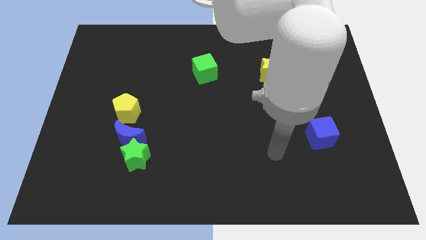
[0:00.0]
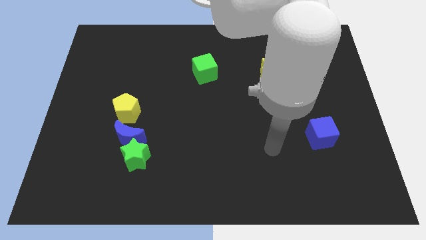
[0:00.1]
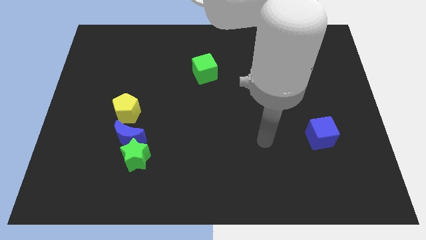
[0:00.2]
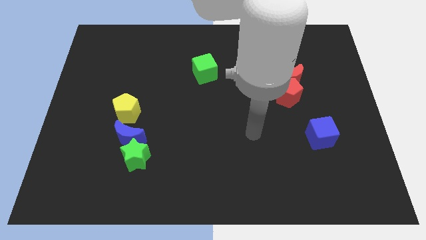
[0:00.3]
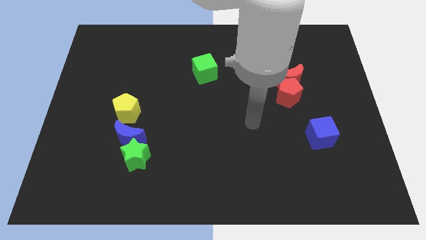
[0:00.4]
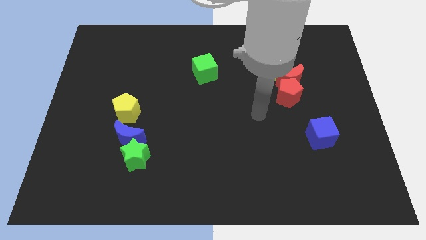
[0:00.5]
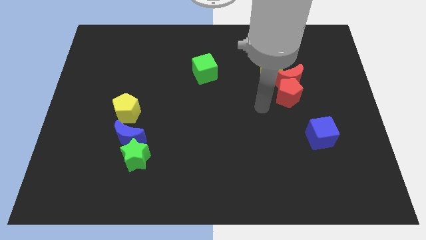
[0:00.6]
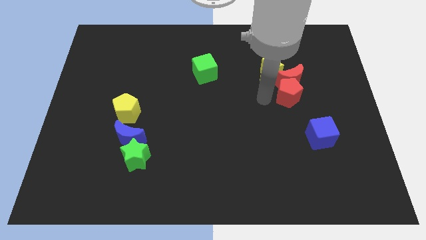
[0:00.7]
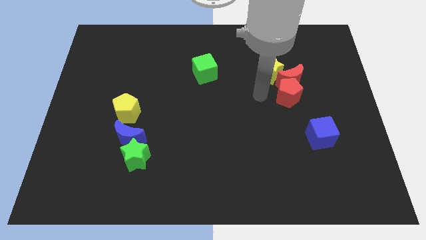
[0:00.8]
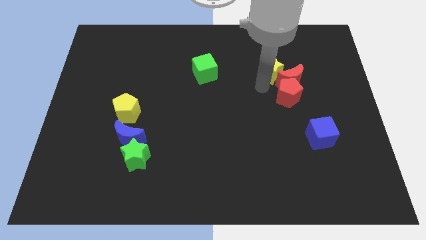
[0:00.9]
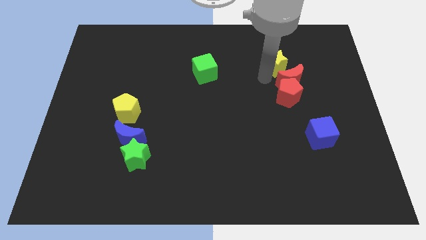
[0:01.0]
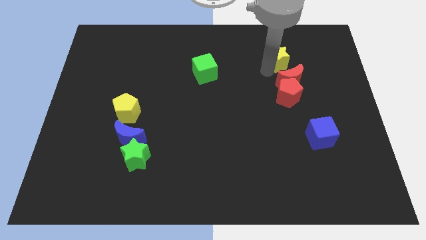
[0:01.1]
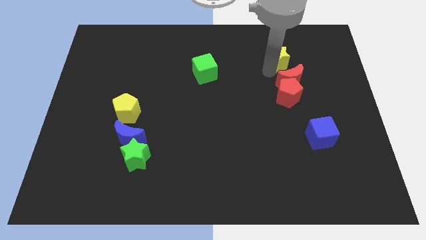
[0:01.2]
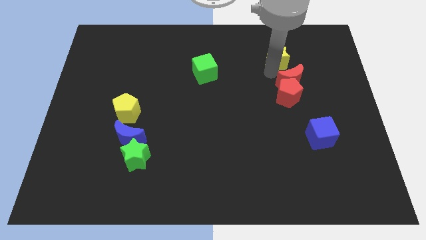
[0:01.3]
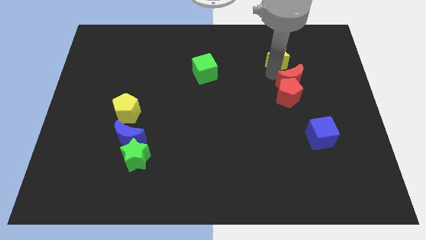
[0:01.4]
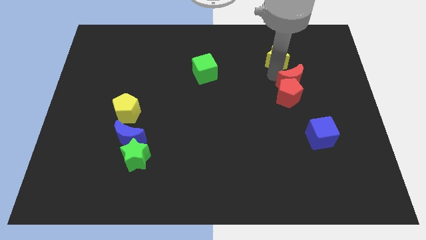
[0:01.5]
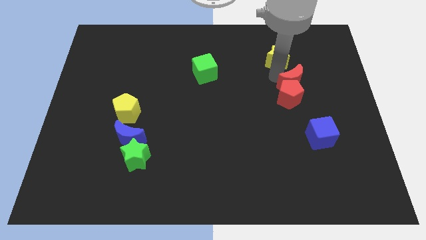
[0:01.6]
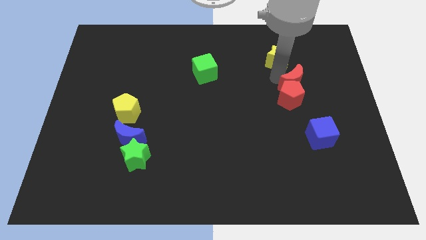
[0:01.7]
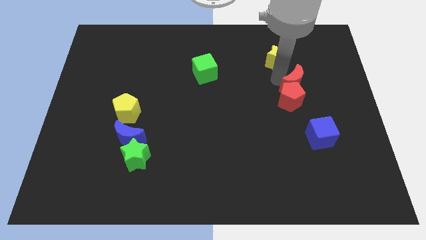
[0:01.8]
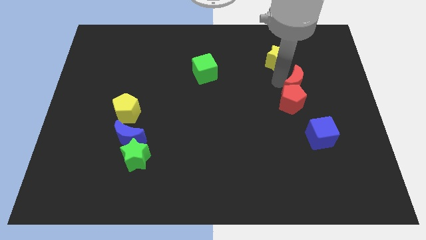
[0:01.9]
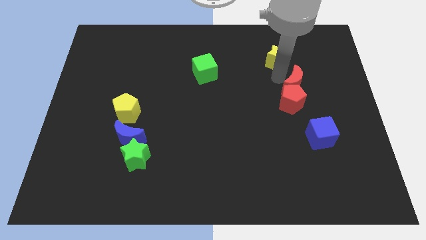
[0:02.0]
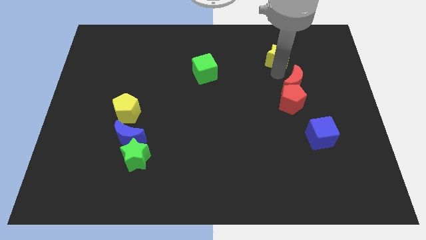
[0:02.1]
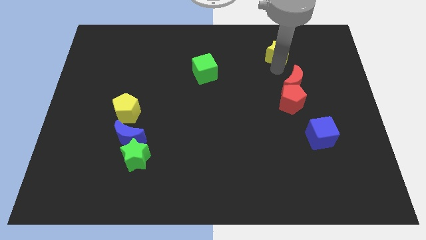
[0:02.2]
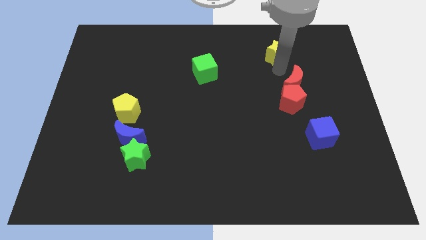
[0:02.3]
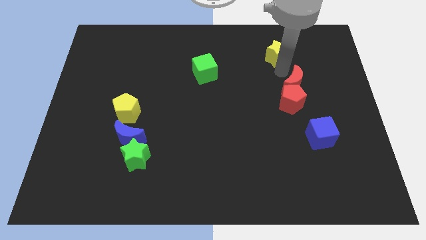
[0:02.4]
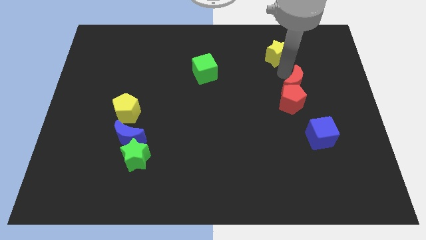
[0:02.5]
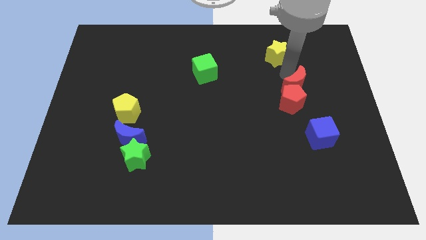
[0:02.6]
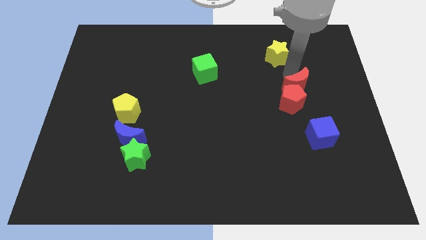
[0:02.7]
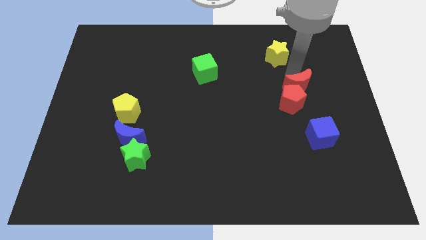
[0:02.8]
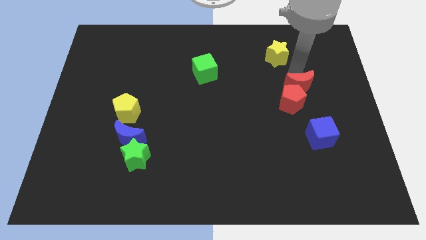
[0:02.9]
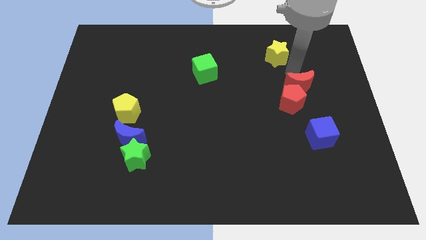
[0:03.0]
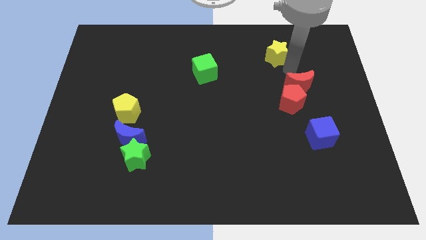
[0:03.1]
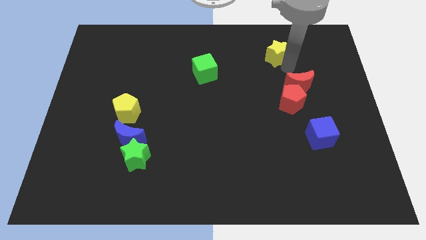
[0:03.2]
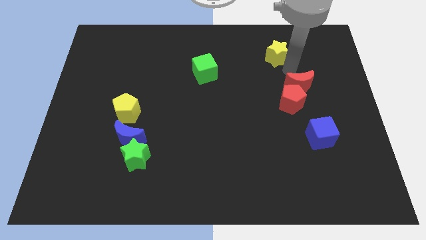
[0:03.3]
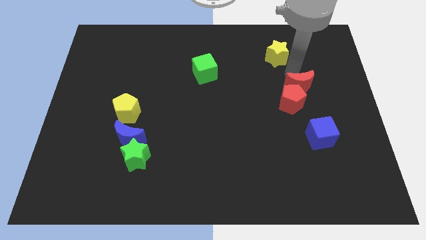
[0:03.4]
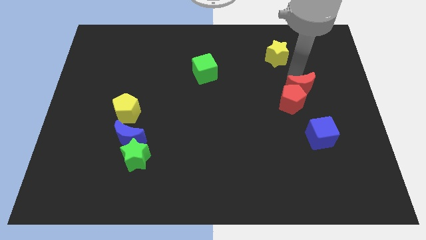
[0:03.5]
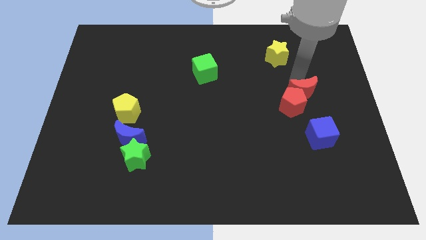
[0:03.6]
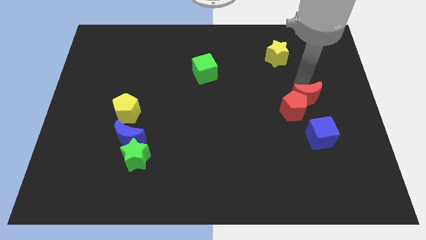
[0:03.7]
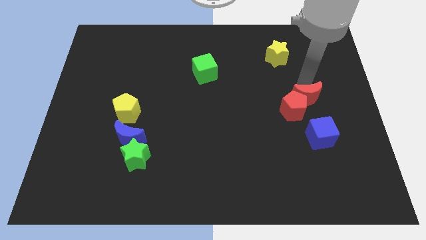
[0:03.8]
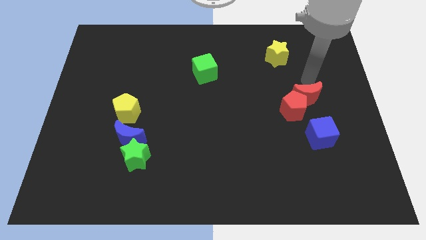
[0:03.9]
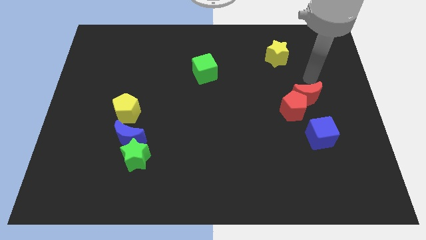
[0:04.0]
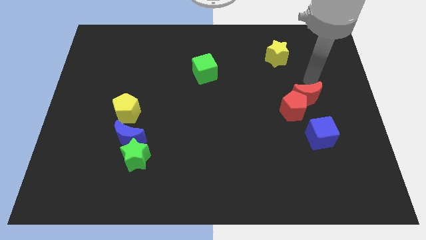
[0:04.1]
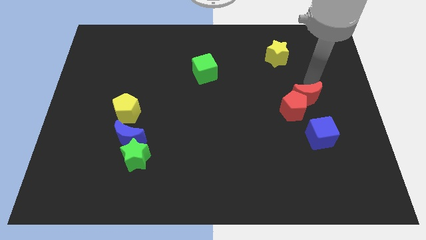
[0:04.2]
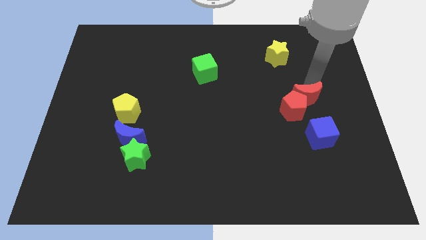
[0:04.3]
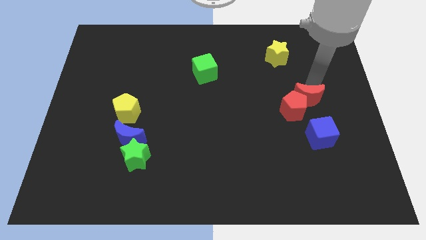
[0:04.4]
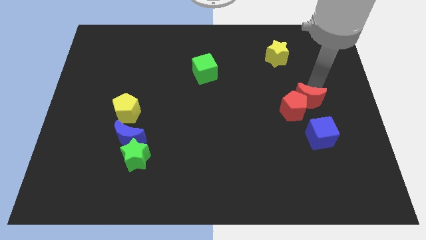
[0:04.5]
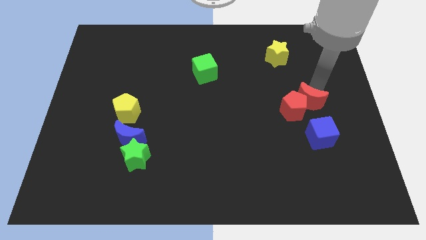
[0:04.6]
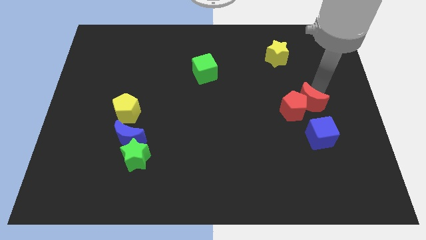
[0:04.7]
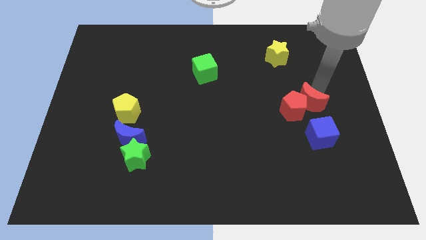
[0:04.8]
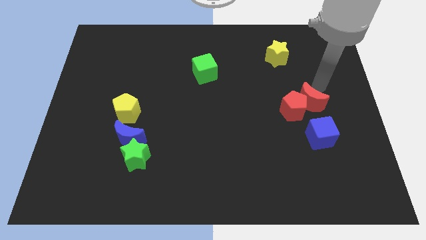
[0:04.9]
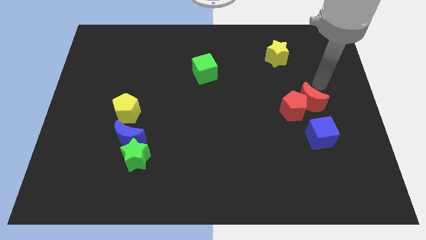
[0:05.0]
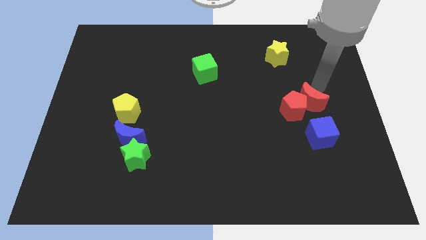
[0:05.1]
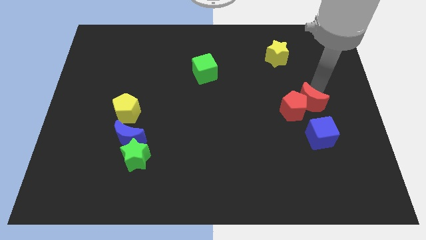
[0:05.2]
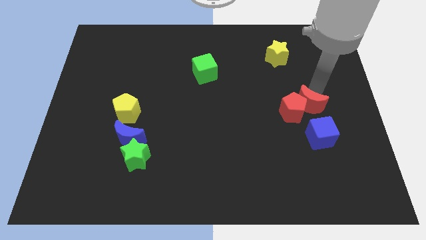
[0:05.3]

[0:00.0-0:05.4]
slightly slide the red moon down

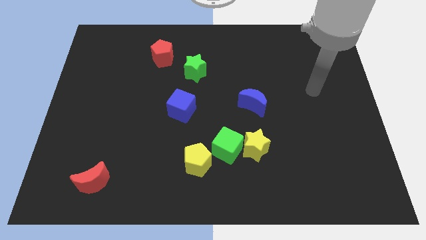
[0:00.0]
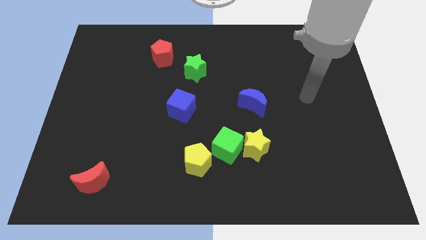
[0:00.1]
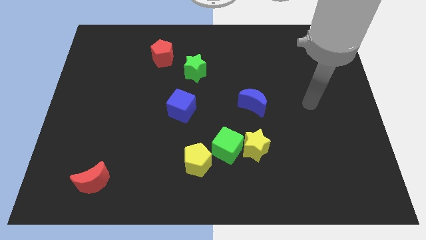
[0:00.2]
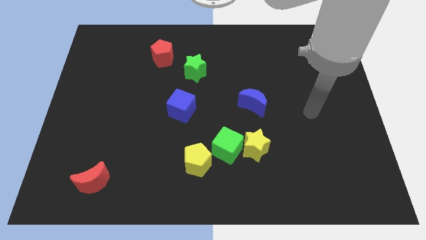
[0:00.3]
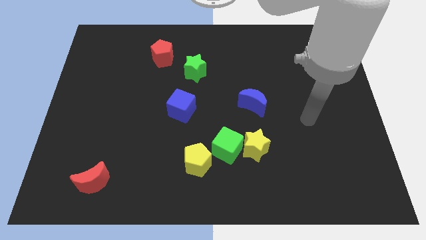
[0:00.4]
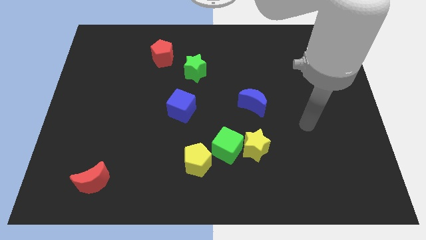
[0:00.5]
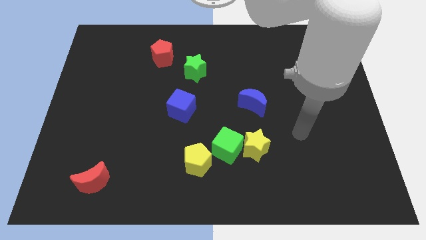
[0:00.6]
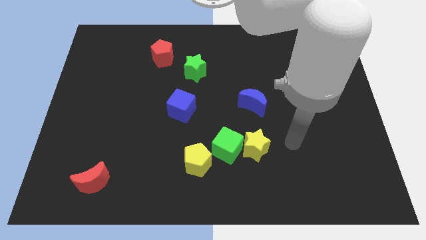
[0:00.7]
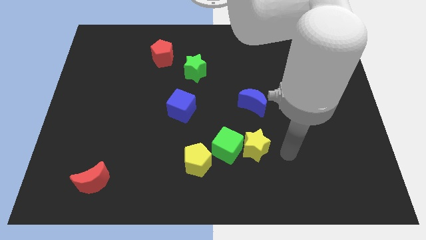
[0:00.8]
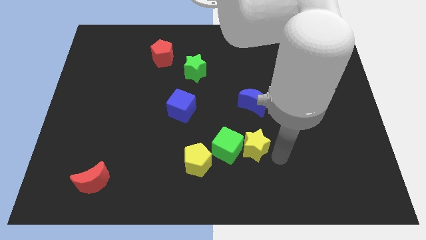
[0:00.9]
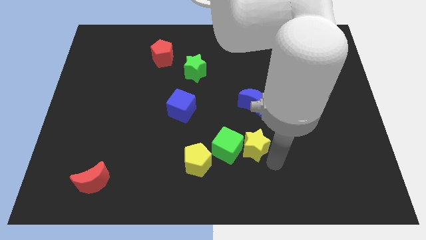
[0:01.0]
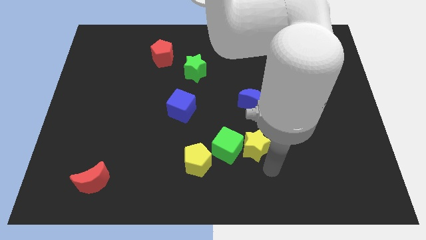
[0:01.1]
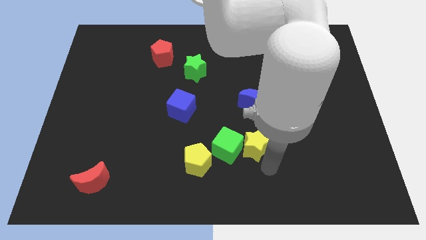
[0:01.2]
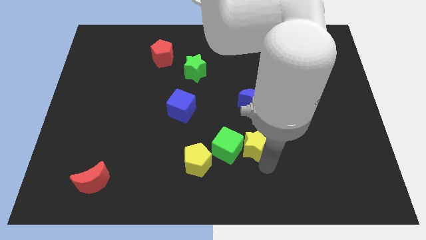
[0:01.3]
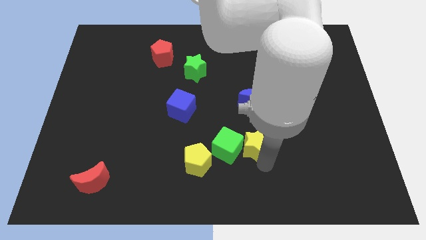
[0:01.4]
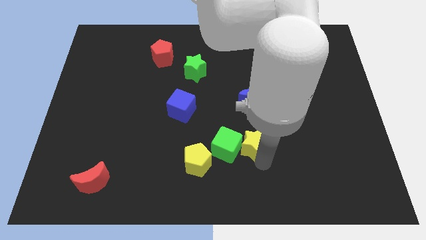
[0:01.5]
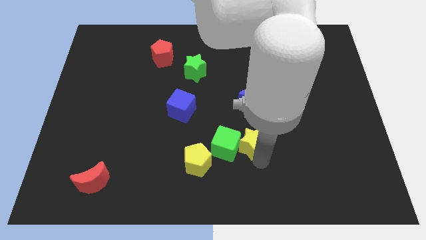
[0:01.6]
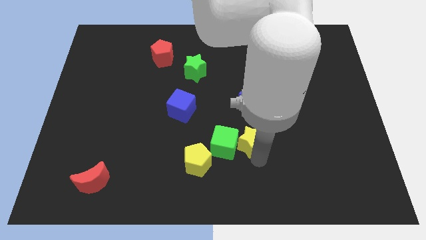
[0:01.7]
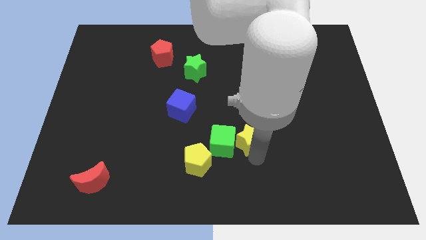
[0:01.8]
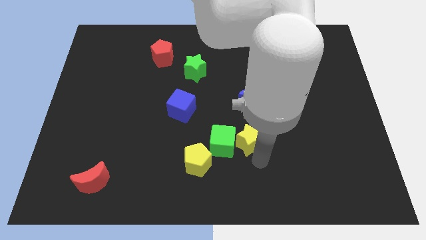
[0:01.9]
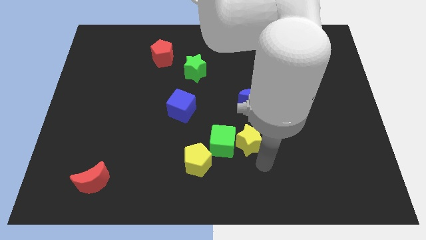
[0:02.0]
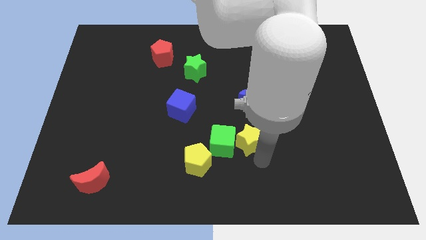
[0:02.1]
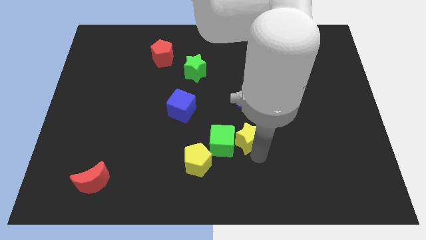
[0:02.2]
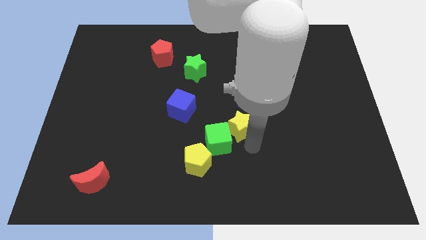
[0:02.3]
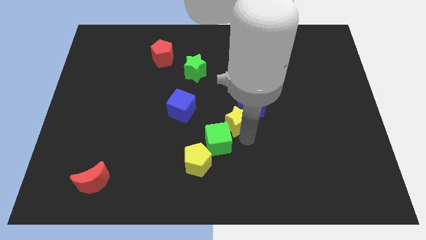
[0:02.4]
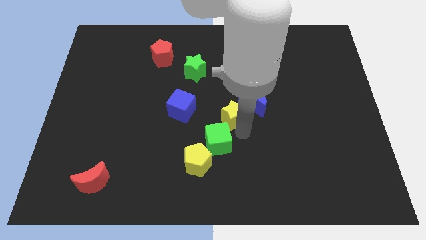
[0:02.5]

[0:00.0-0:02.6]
move the yellow star a little upwards
